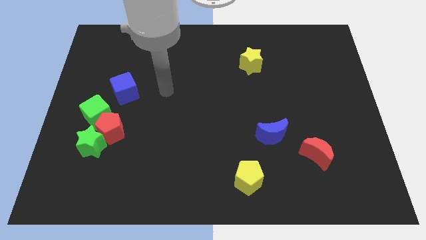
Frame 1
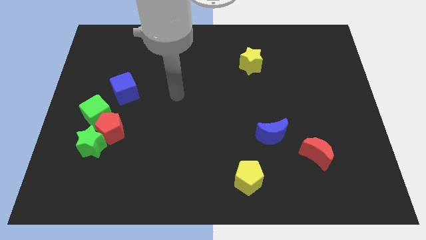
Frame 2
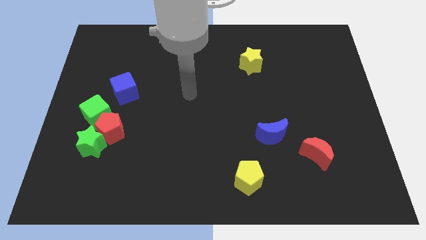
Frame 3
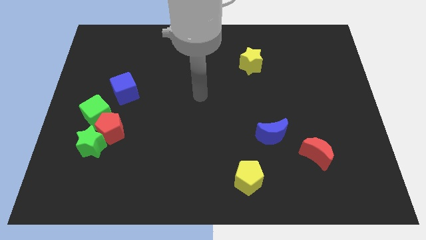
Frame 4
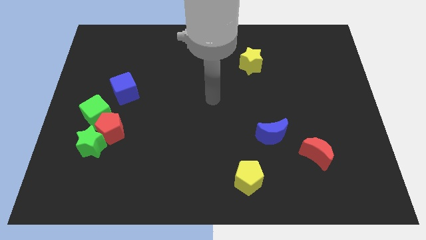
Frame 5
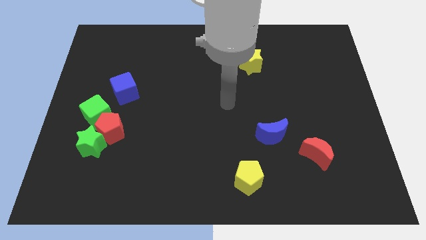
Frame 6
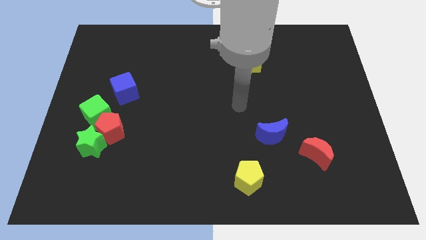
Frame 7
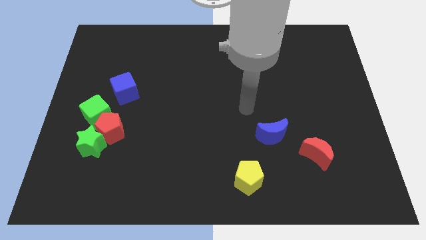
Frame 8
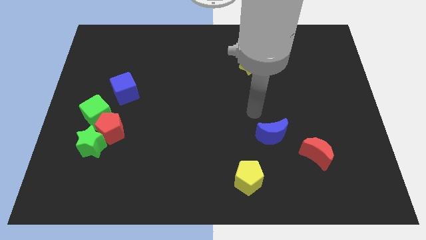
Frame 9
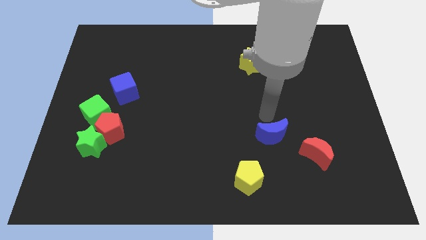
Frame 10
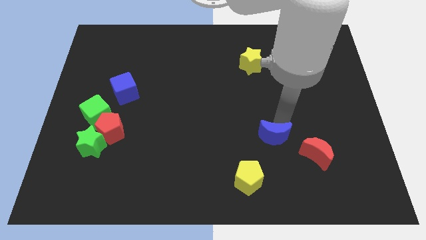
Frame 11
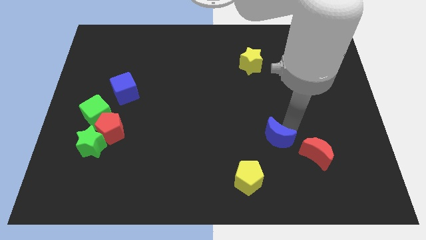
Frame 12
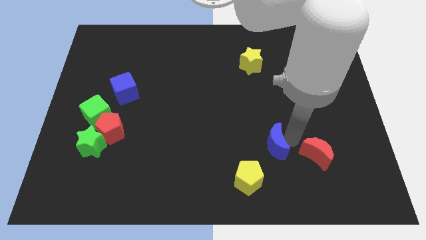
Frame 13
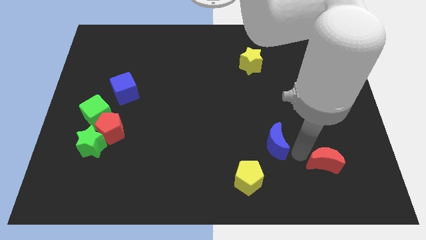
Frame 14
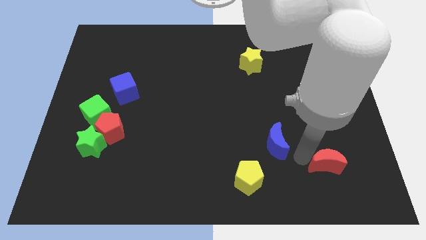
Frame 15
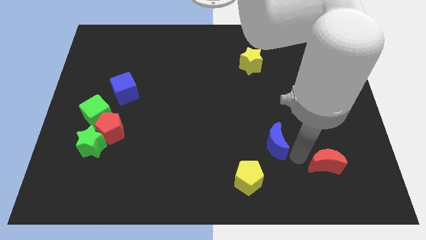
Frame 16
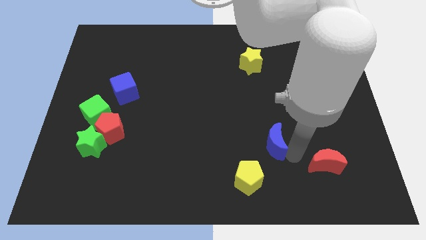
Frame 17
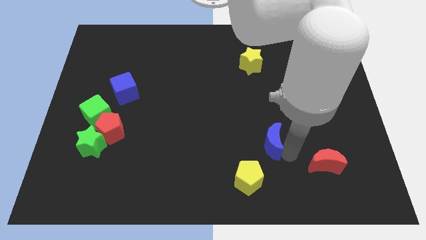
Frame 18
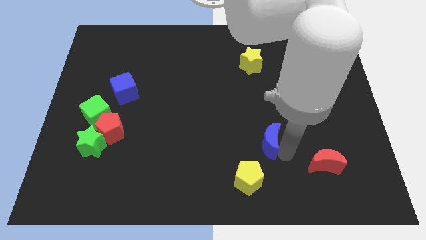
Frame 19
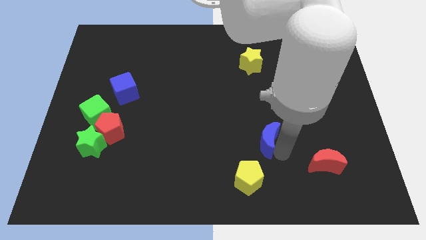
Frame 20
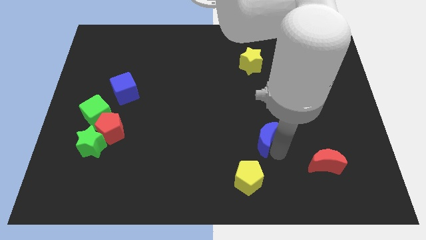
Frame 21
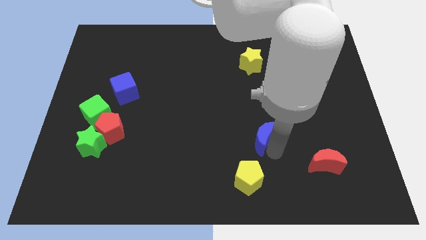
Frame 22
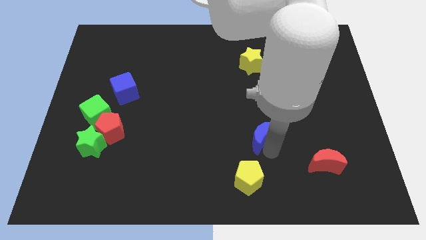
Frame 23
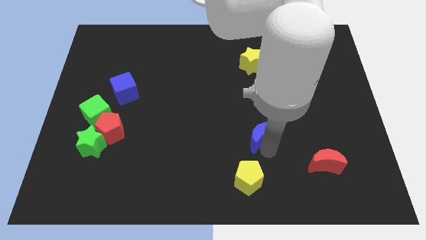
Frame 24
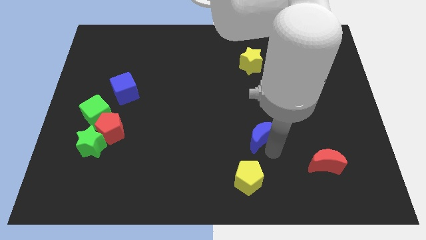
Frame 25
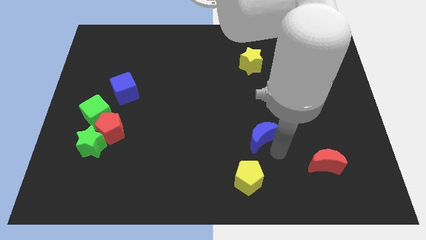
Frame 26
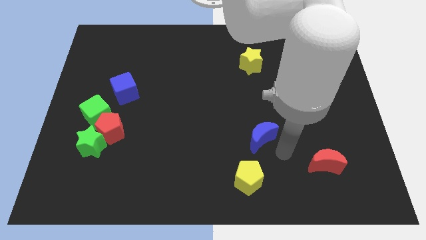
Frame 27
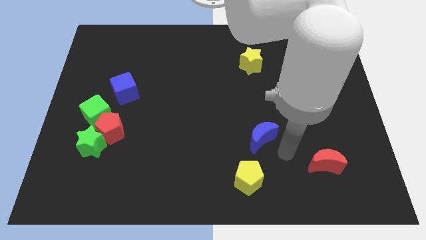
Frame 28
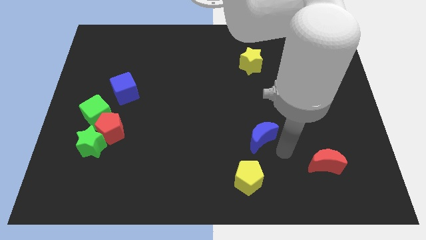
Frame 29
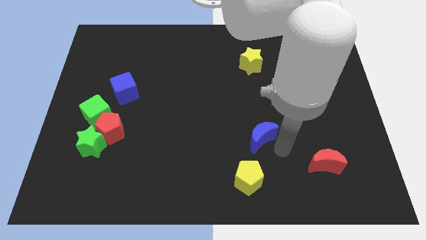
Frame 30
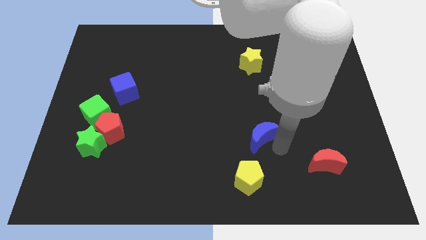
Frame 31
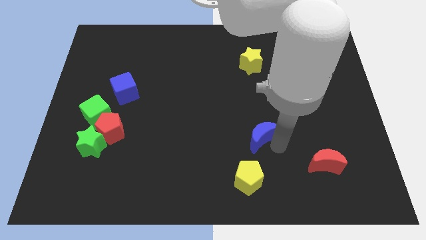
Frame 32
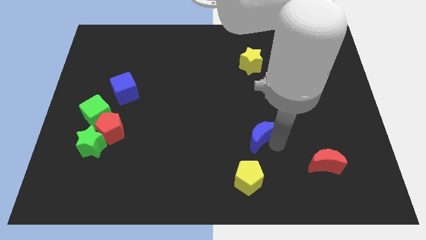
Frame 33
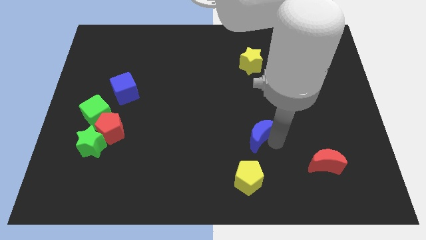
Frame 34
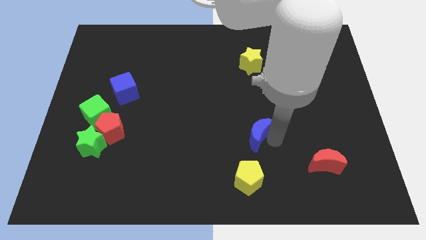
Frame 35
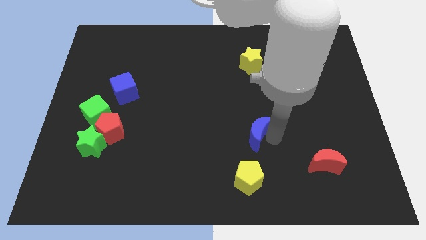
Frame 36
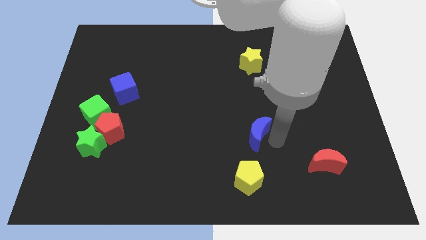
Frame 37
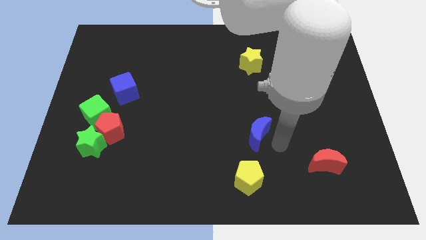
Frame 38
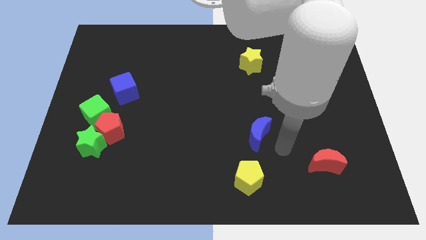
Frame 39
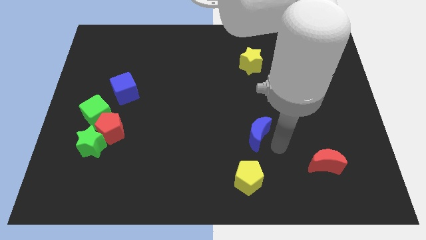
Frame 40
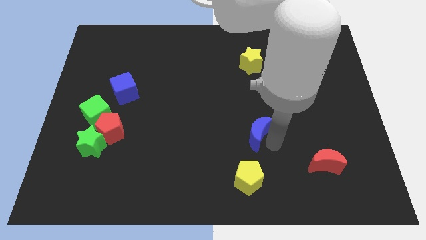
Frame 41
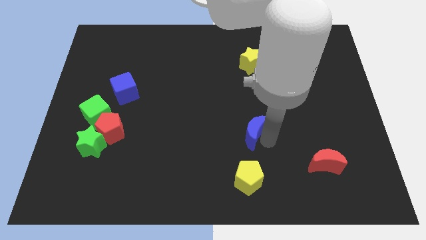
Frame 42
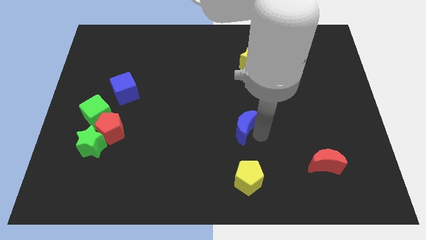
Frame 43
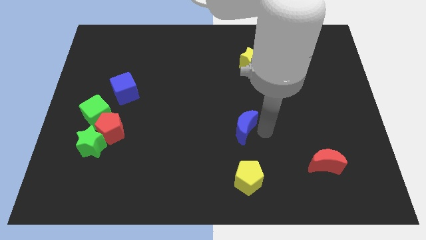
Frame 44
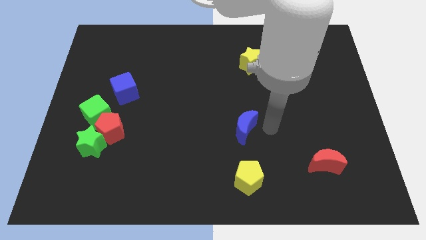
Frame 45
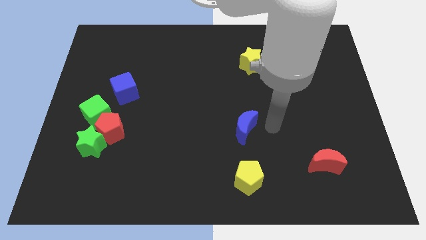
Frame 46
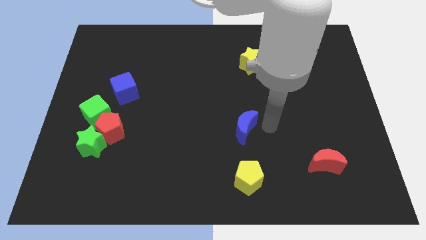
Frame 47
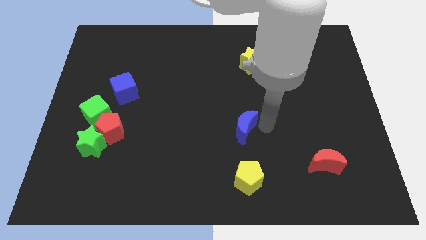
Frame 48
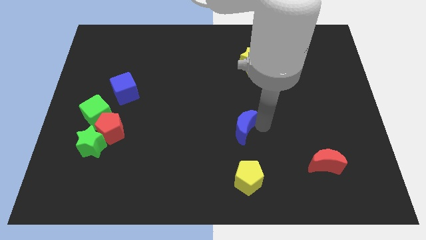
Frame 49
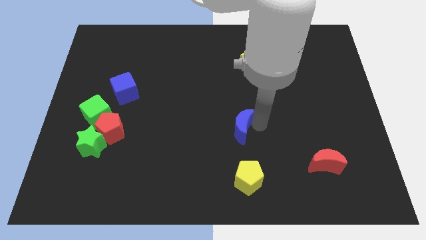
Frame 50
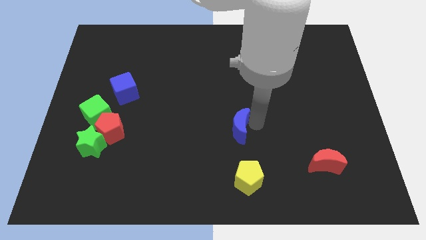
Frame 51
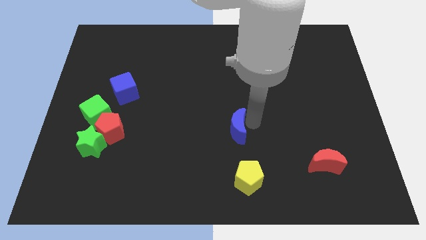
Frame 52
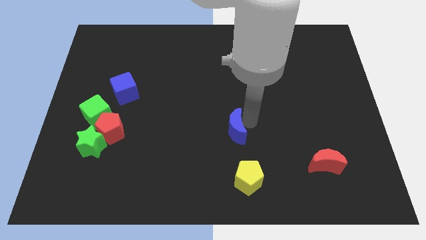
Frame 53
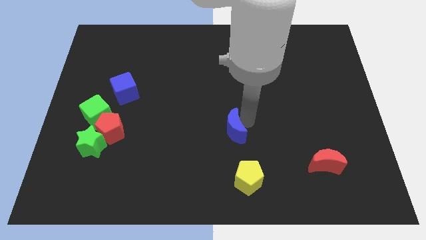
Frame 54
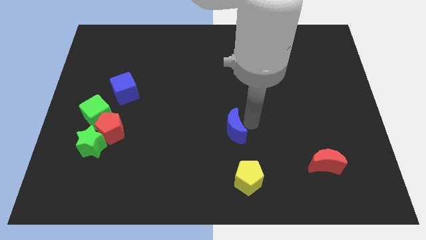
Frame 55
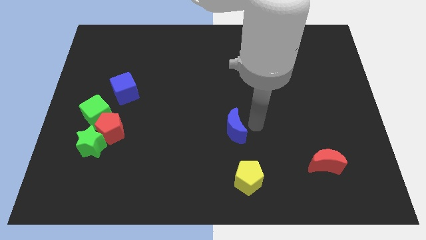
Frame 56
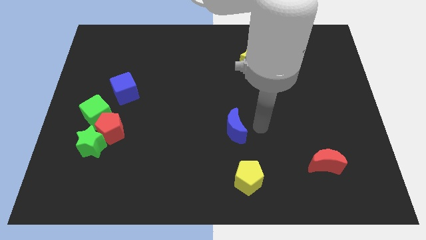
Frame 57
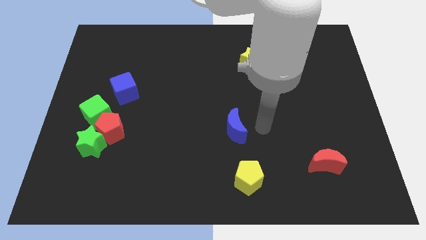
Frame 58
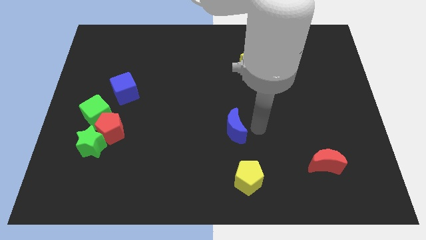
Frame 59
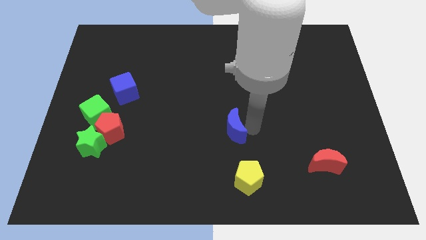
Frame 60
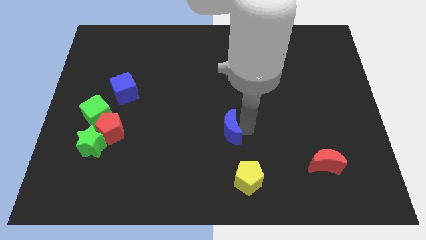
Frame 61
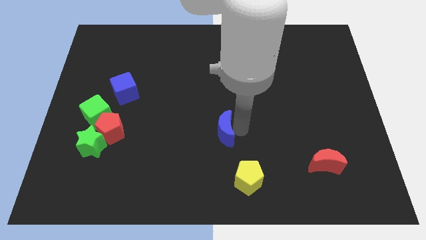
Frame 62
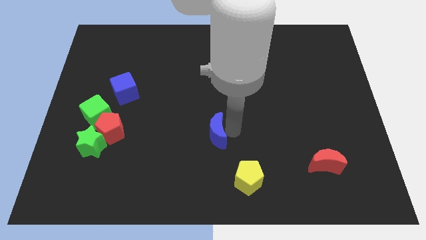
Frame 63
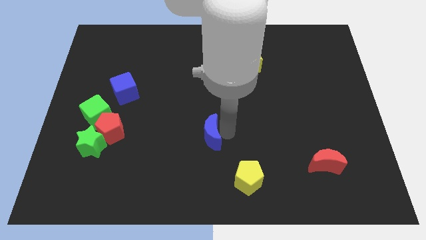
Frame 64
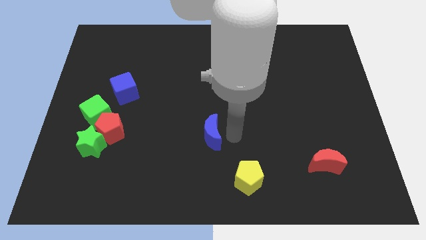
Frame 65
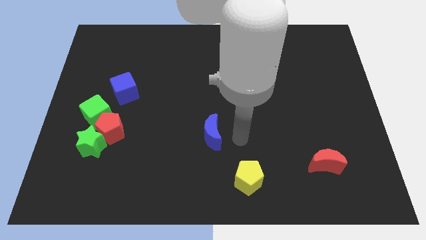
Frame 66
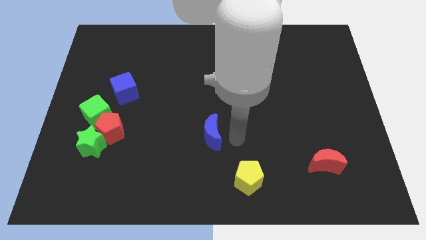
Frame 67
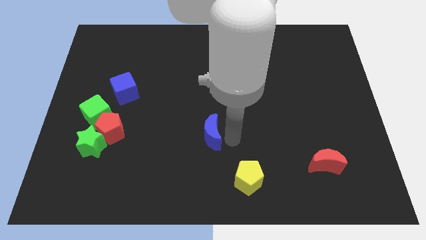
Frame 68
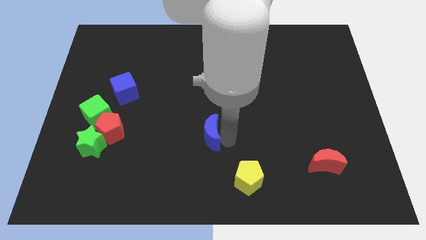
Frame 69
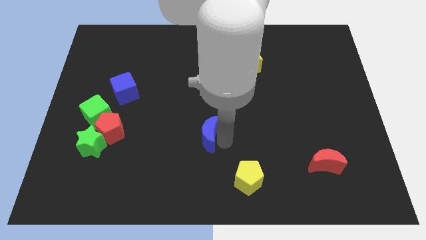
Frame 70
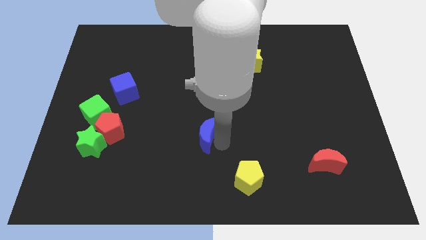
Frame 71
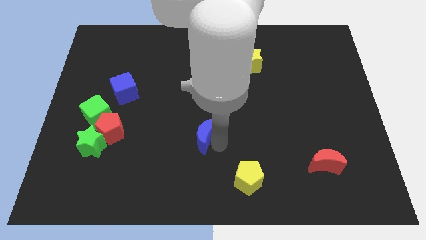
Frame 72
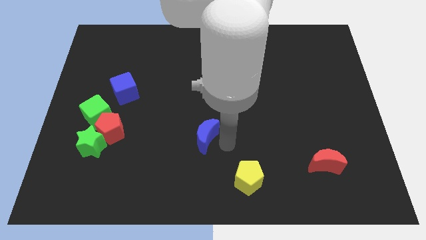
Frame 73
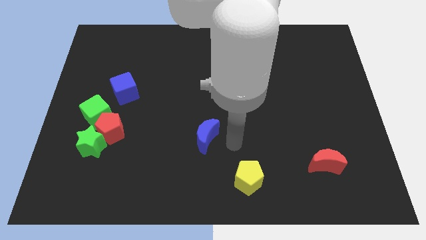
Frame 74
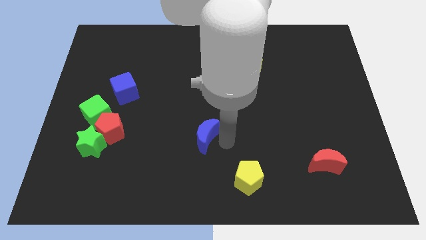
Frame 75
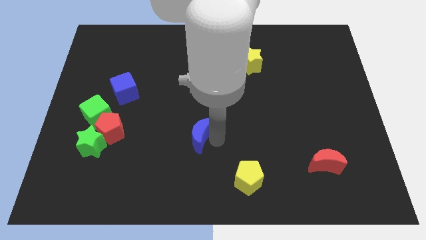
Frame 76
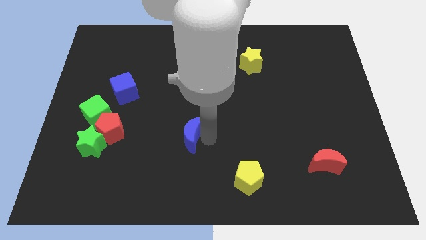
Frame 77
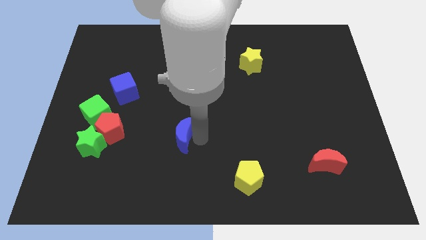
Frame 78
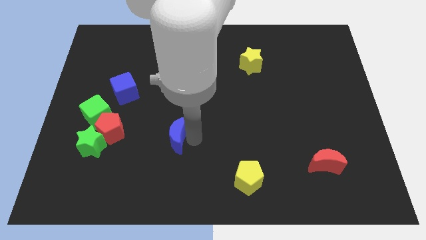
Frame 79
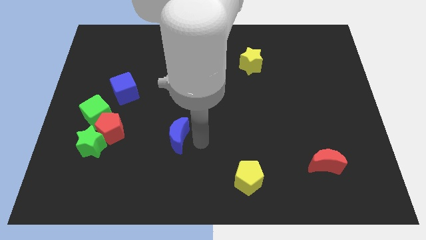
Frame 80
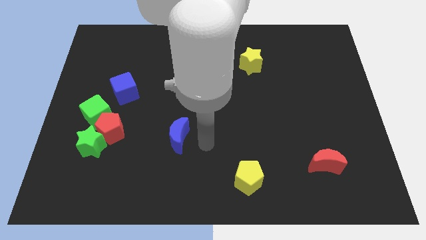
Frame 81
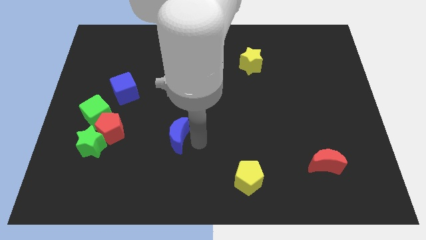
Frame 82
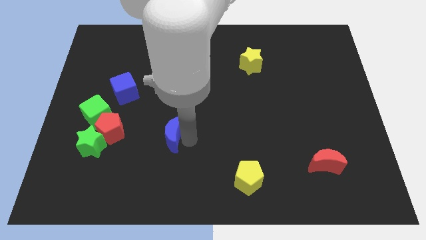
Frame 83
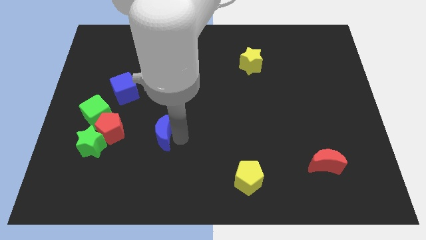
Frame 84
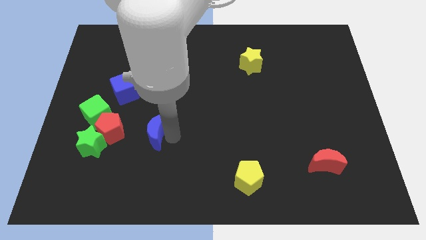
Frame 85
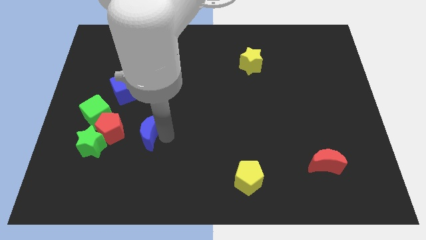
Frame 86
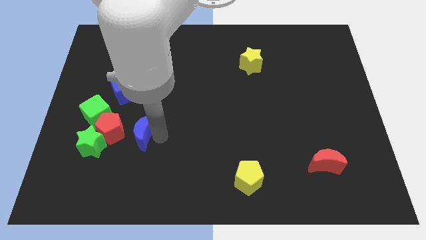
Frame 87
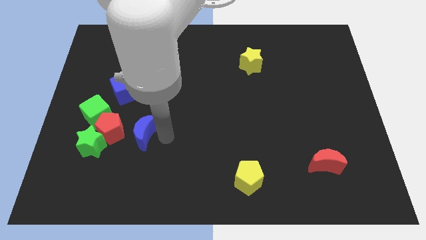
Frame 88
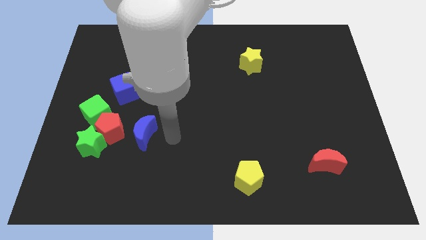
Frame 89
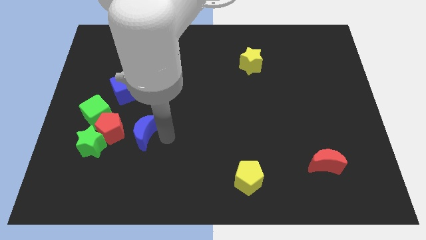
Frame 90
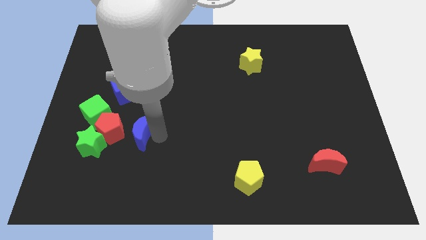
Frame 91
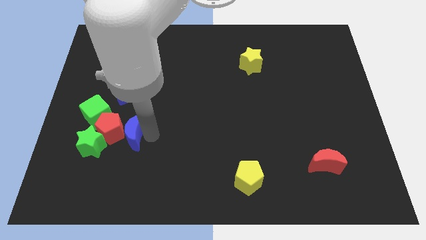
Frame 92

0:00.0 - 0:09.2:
push the blue moon towards the red pentagon
